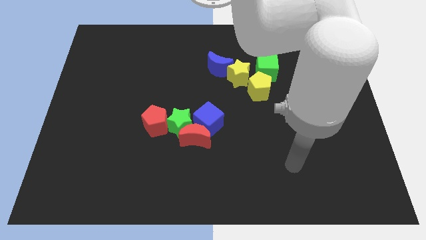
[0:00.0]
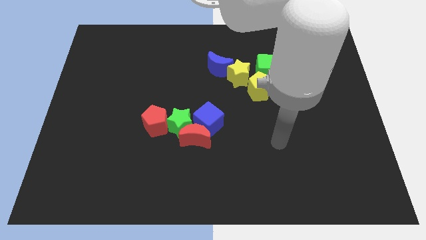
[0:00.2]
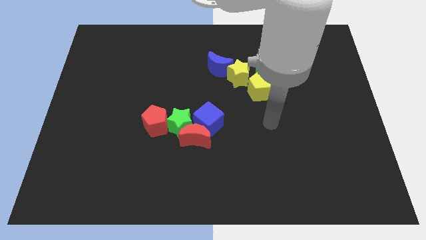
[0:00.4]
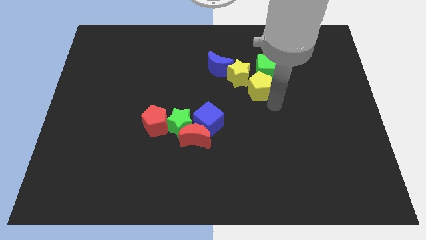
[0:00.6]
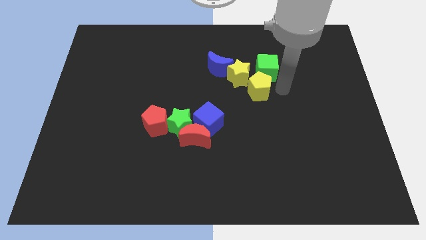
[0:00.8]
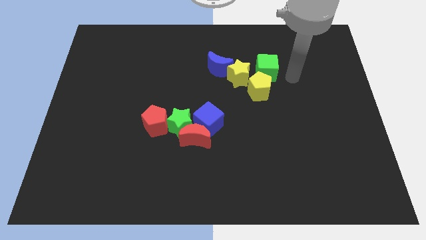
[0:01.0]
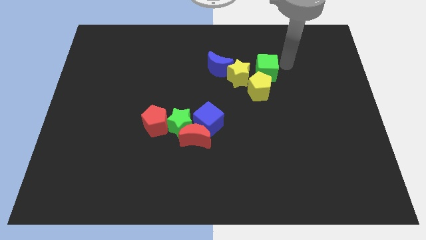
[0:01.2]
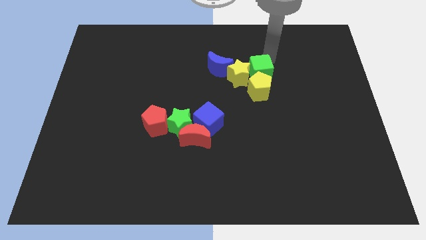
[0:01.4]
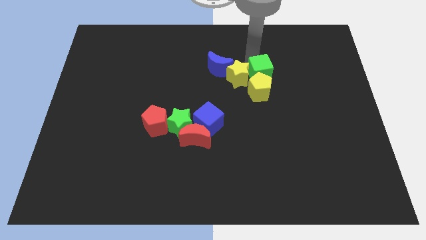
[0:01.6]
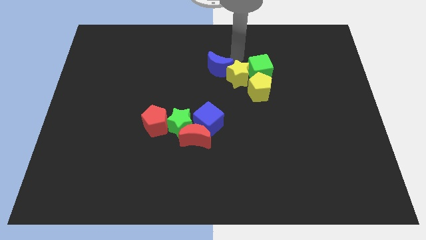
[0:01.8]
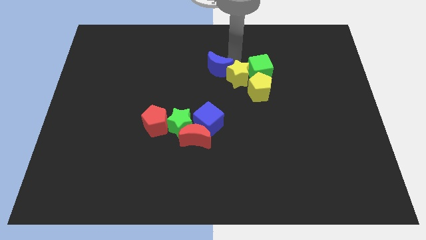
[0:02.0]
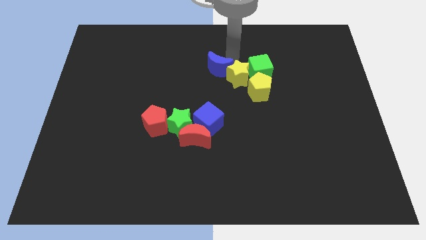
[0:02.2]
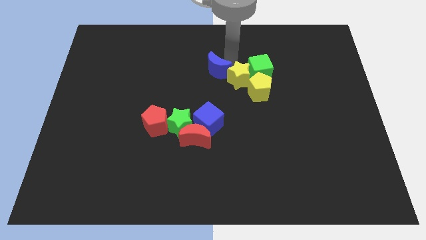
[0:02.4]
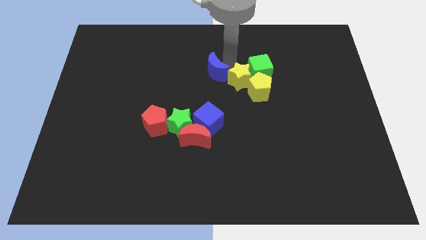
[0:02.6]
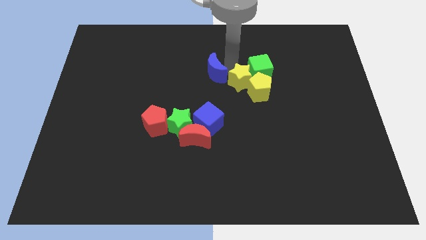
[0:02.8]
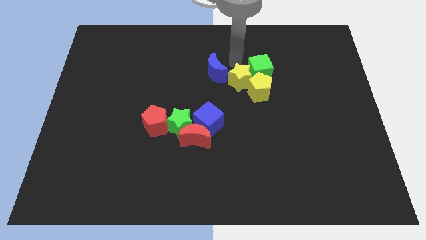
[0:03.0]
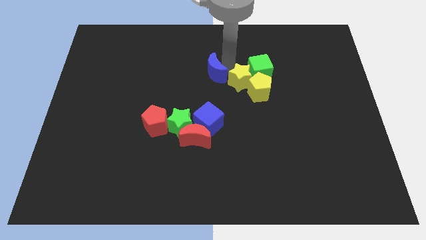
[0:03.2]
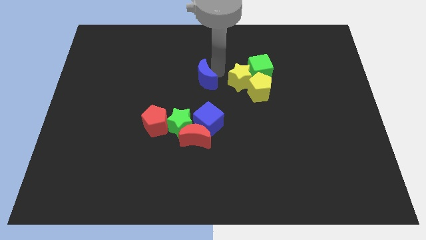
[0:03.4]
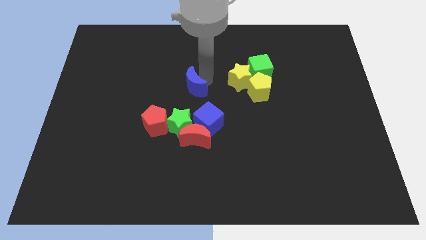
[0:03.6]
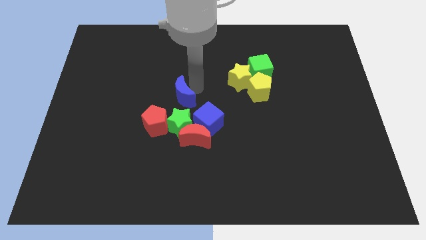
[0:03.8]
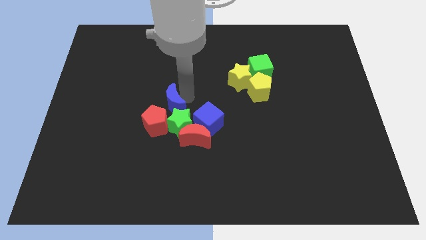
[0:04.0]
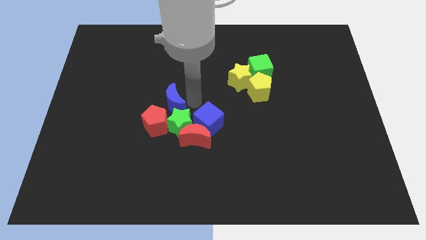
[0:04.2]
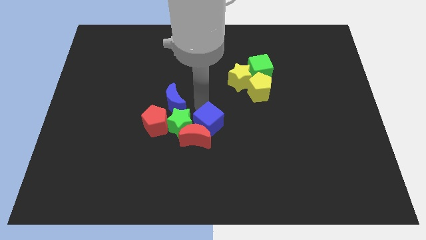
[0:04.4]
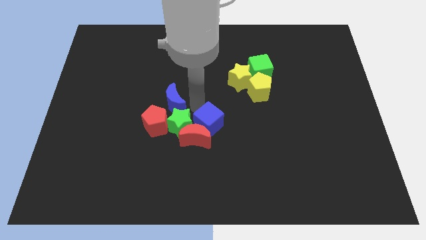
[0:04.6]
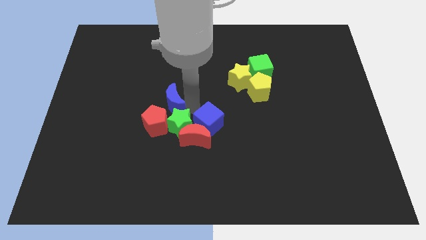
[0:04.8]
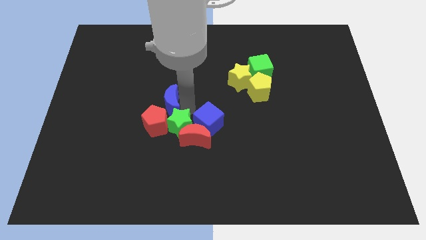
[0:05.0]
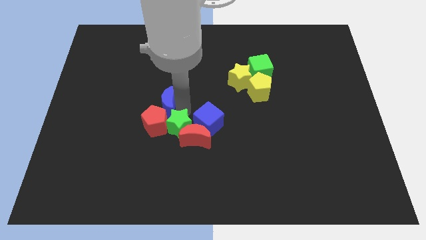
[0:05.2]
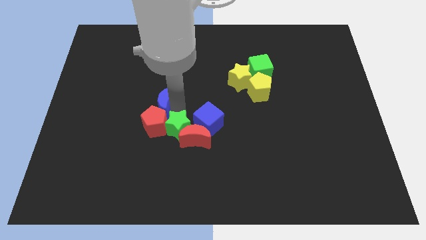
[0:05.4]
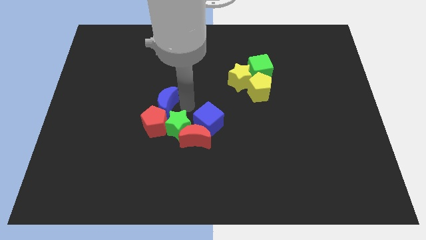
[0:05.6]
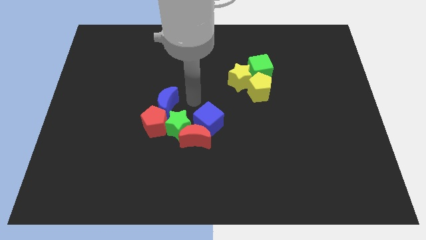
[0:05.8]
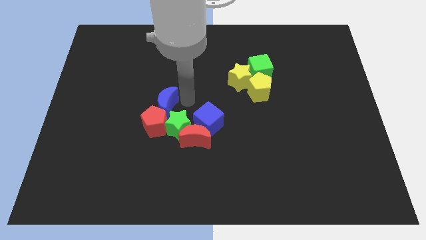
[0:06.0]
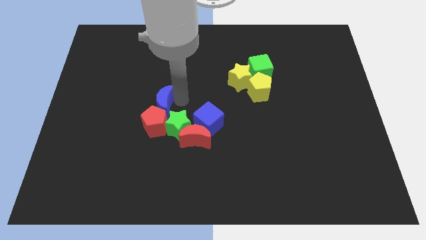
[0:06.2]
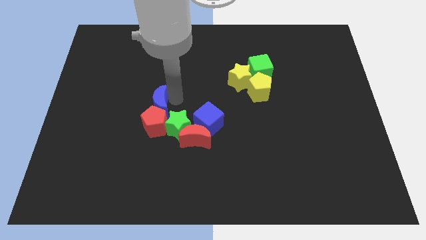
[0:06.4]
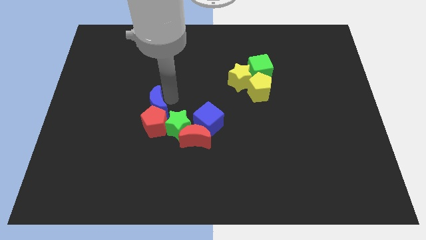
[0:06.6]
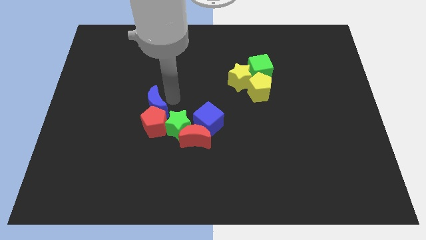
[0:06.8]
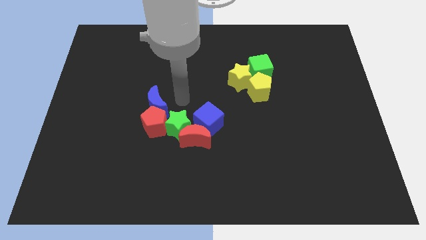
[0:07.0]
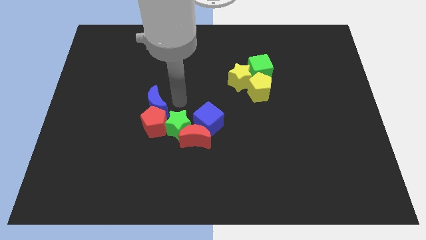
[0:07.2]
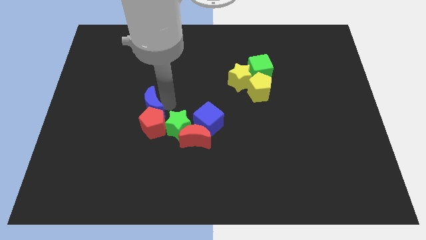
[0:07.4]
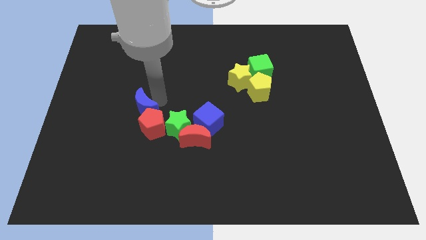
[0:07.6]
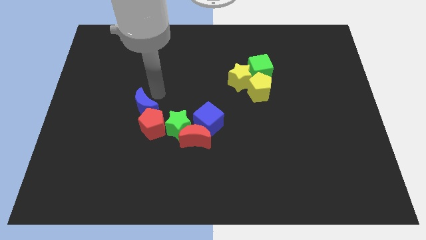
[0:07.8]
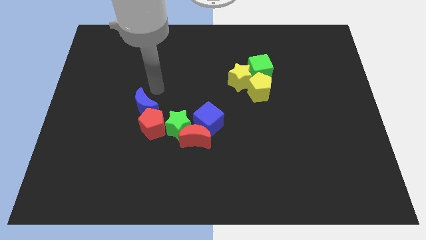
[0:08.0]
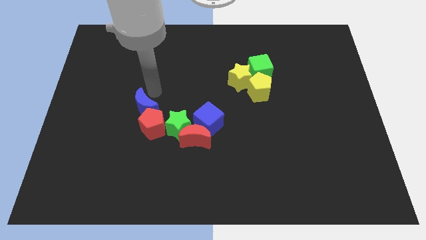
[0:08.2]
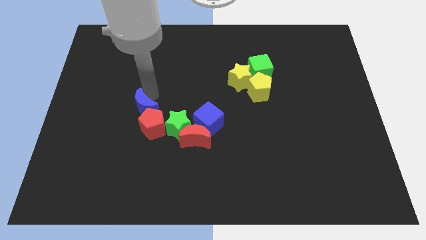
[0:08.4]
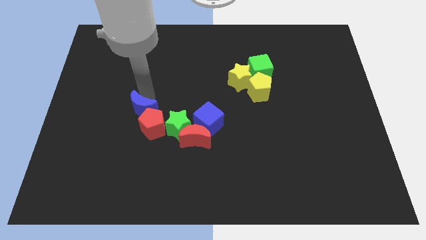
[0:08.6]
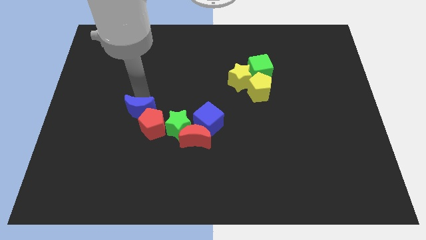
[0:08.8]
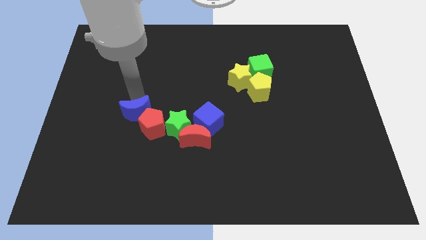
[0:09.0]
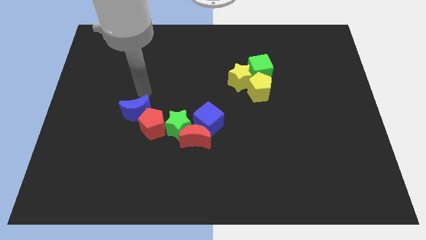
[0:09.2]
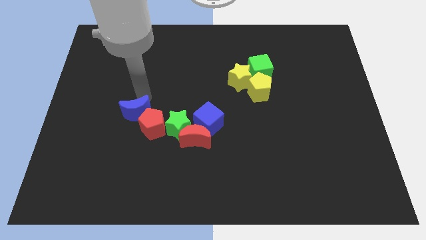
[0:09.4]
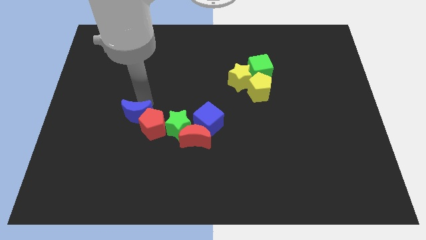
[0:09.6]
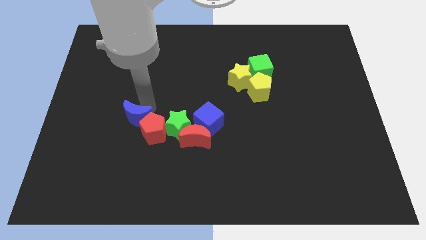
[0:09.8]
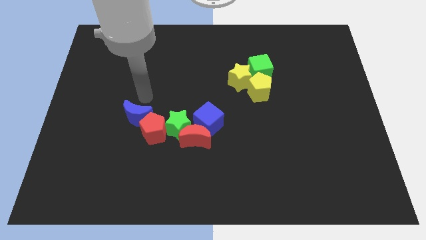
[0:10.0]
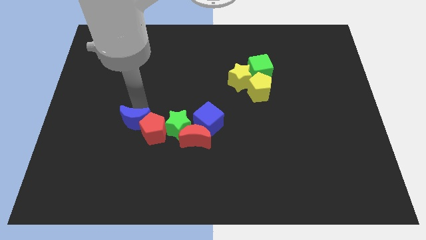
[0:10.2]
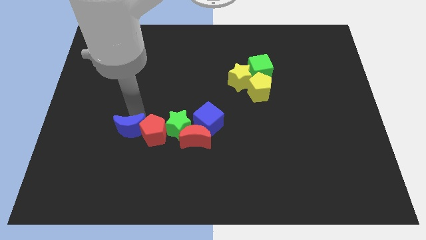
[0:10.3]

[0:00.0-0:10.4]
slide the blue moon diagonally down and to the left of the red pentagon

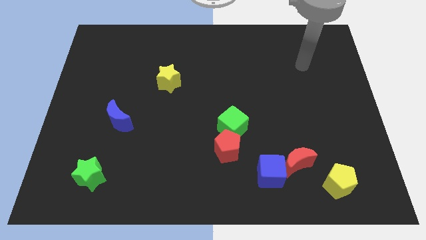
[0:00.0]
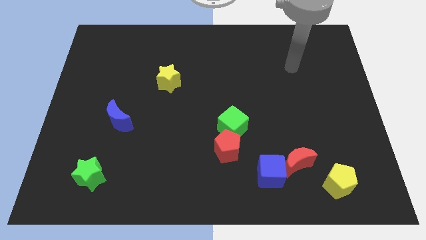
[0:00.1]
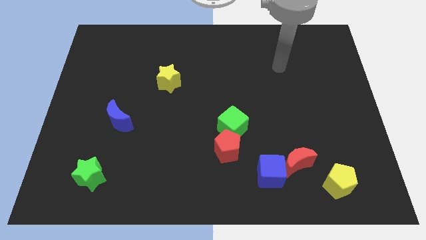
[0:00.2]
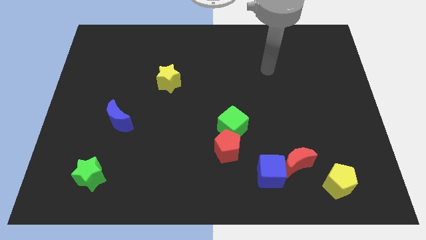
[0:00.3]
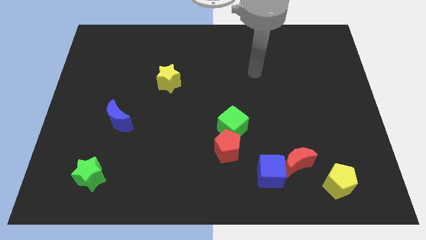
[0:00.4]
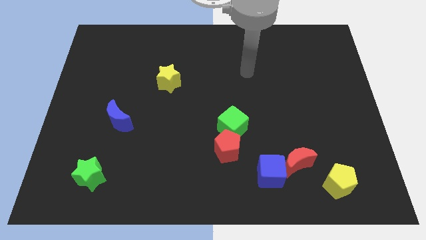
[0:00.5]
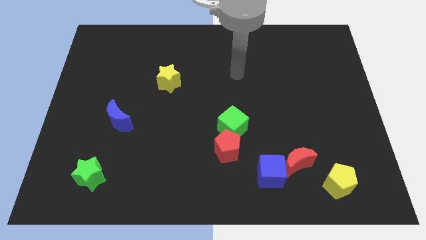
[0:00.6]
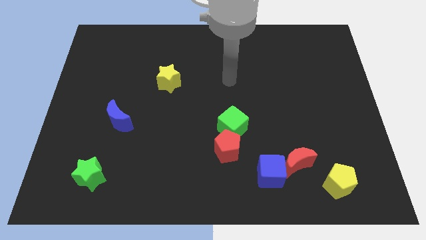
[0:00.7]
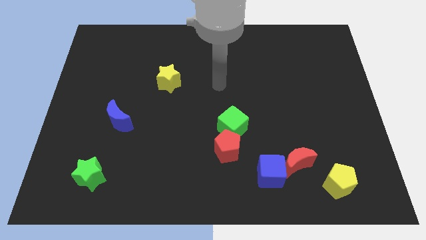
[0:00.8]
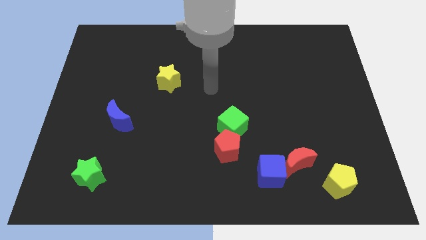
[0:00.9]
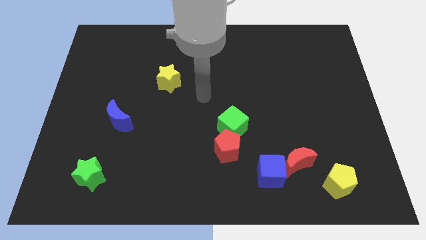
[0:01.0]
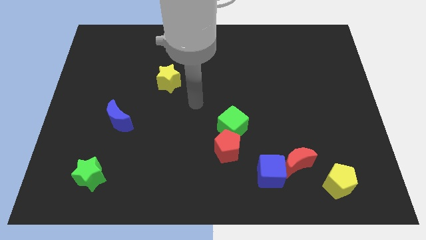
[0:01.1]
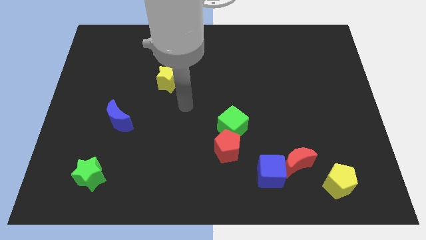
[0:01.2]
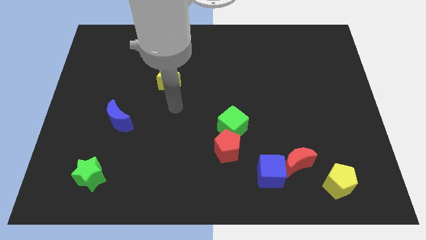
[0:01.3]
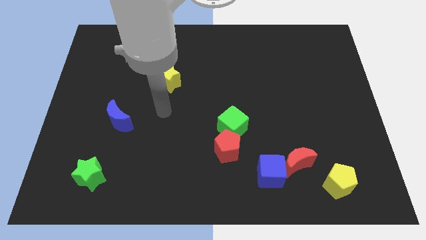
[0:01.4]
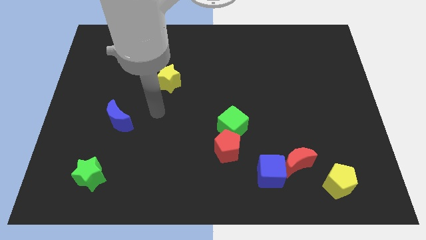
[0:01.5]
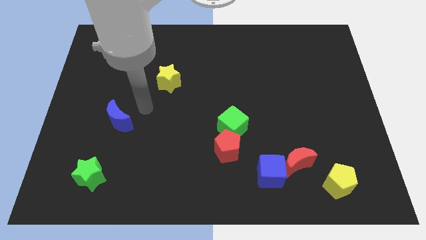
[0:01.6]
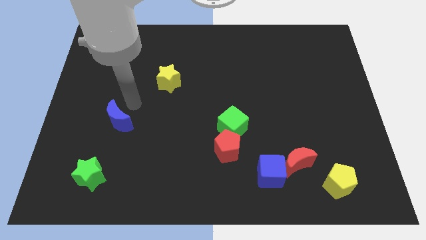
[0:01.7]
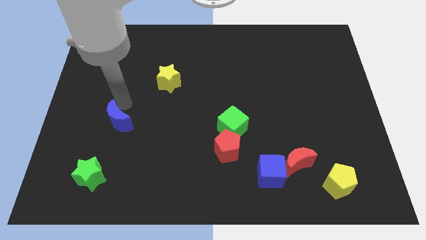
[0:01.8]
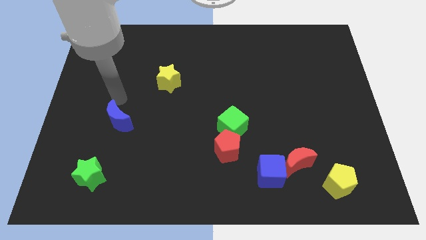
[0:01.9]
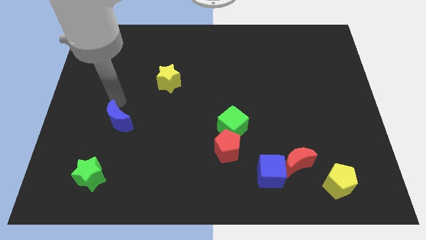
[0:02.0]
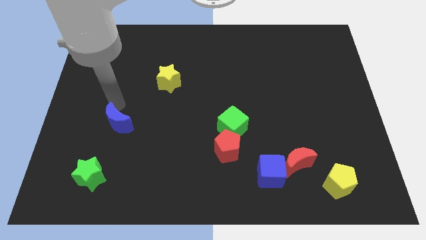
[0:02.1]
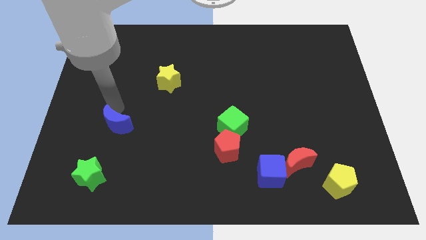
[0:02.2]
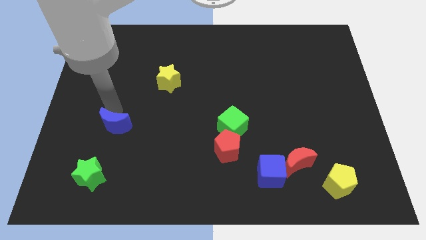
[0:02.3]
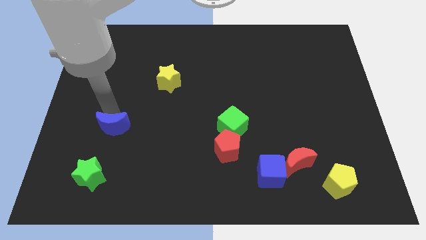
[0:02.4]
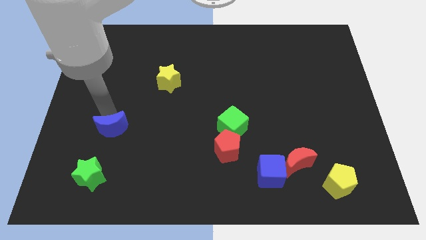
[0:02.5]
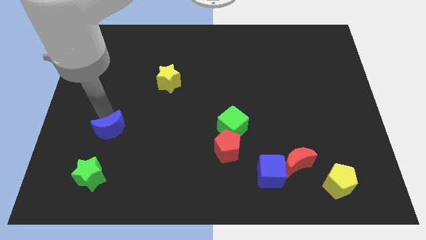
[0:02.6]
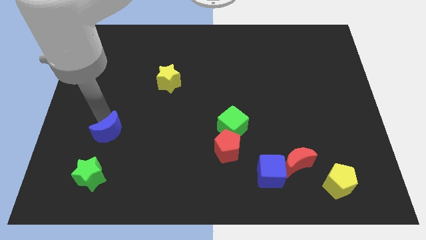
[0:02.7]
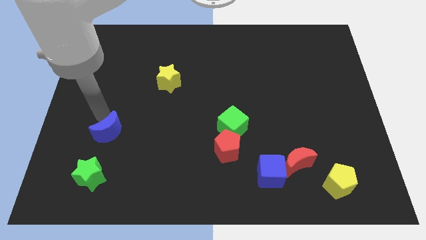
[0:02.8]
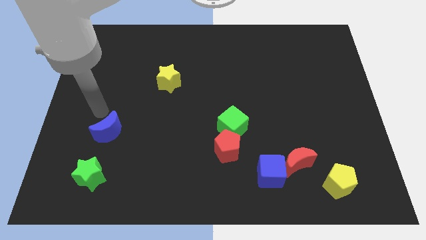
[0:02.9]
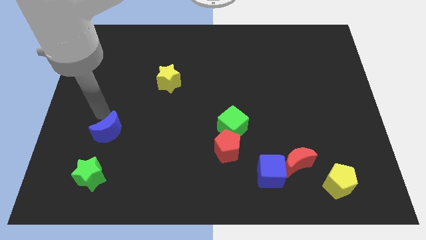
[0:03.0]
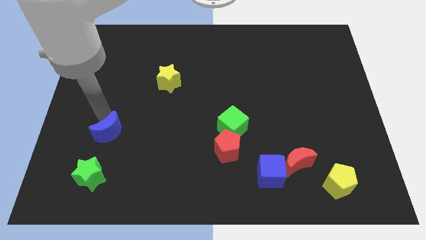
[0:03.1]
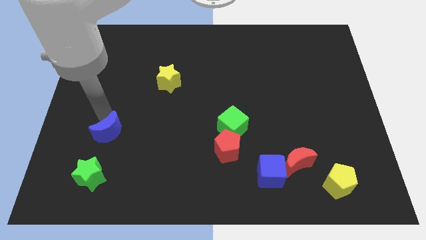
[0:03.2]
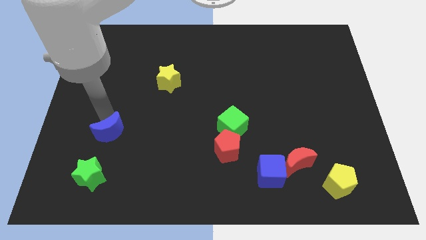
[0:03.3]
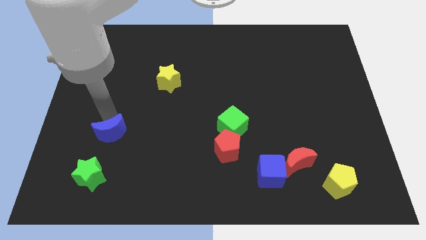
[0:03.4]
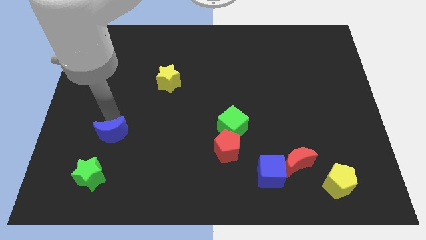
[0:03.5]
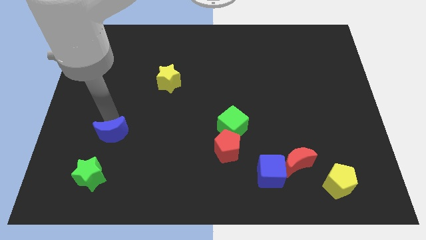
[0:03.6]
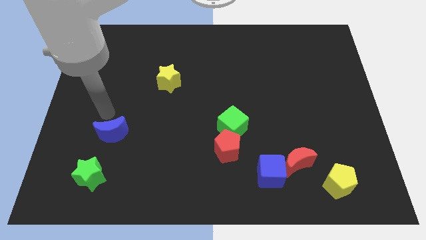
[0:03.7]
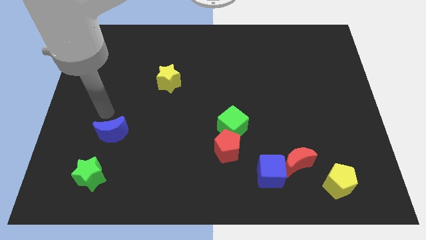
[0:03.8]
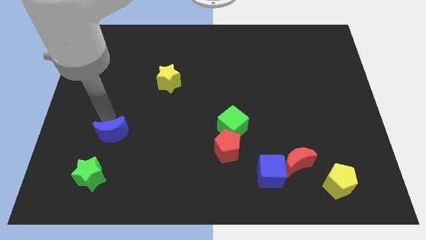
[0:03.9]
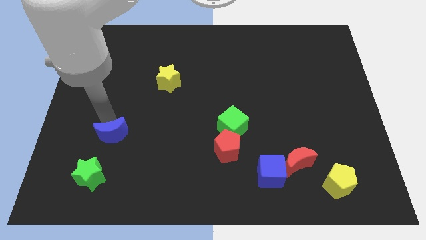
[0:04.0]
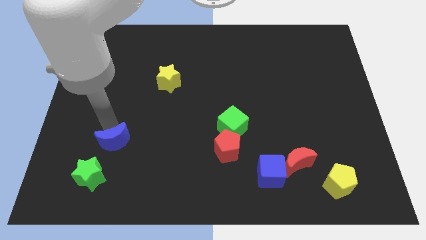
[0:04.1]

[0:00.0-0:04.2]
move the blue moon diagonally up and to the right of the green star
